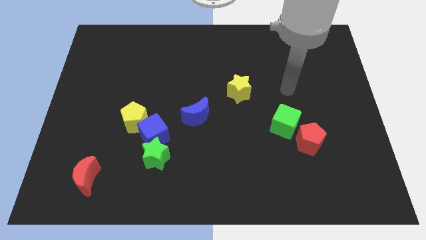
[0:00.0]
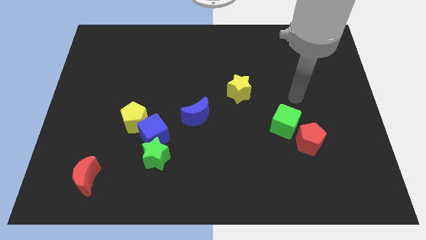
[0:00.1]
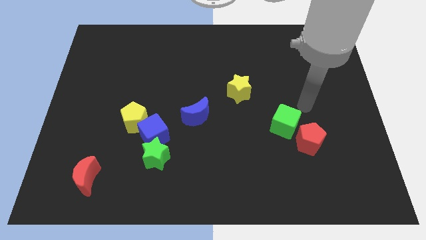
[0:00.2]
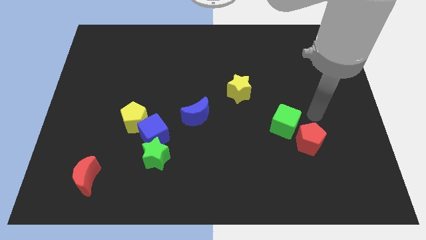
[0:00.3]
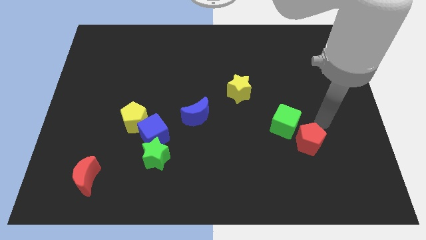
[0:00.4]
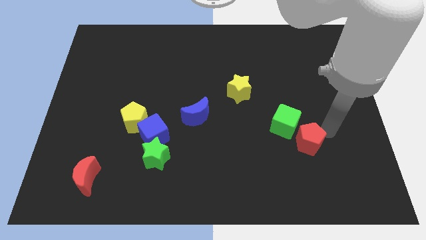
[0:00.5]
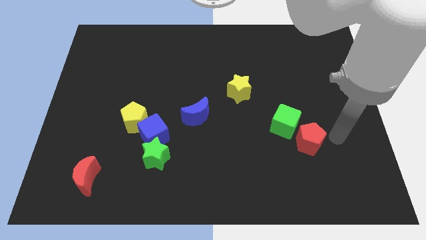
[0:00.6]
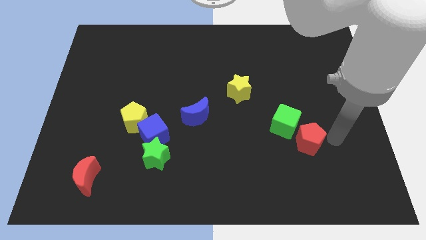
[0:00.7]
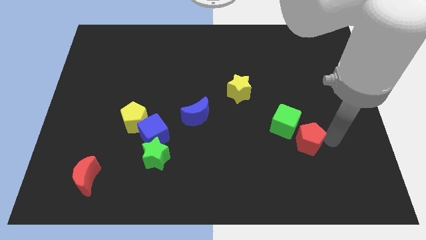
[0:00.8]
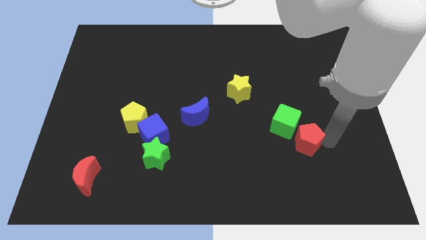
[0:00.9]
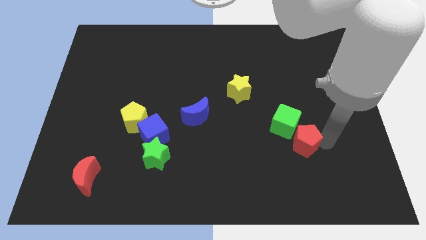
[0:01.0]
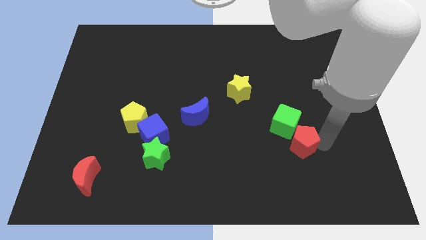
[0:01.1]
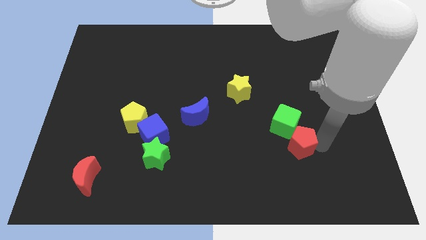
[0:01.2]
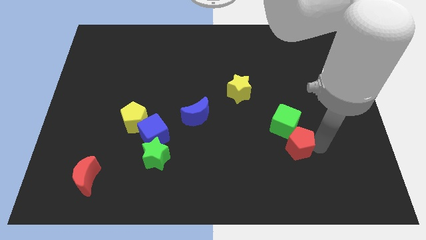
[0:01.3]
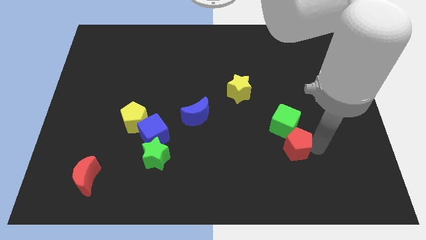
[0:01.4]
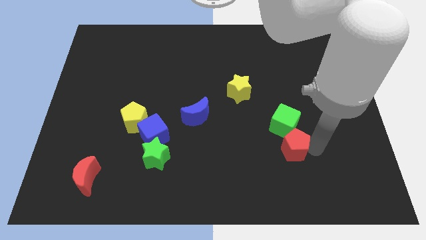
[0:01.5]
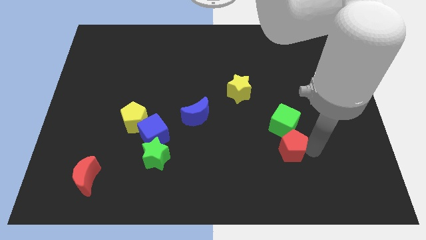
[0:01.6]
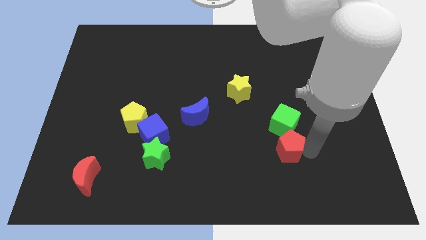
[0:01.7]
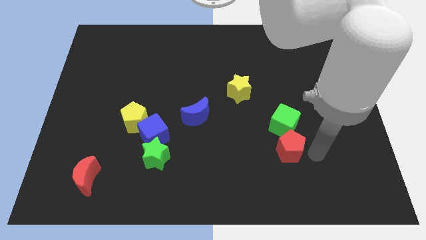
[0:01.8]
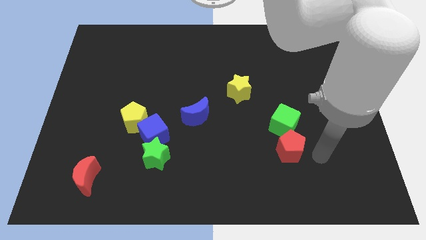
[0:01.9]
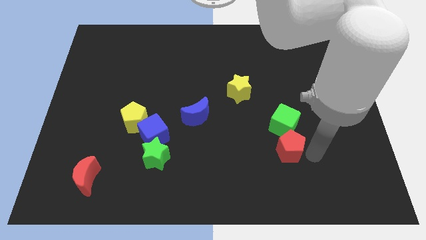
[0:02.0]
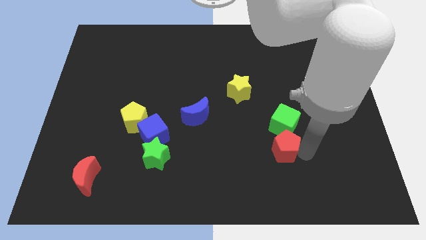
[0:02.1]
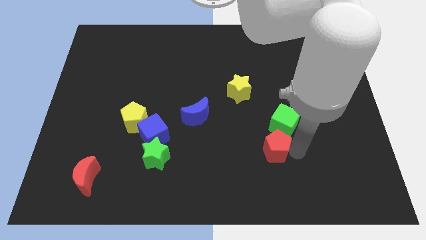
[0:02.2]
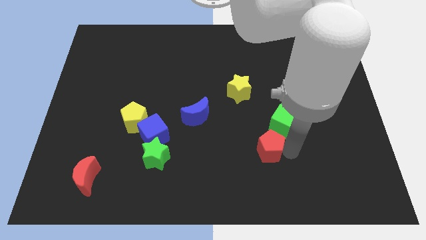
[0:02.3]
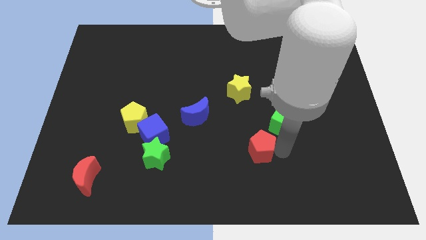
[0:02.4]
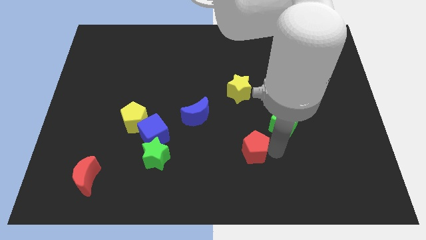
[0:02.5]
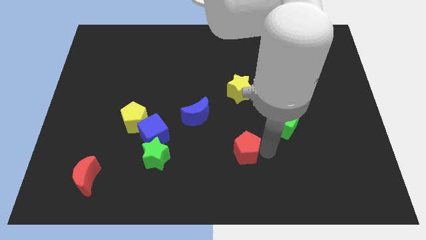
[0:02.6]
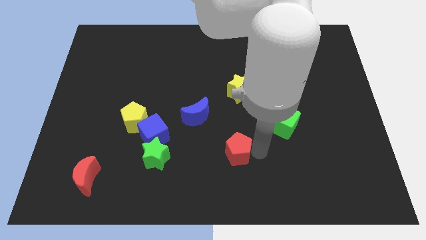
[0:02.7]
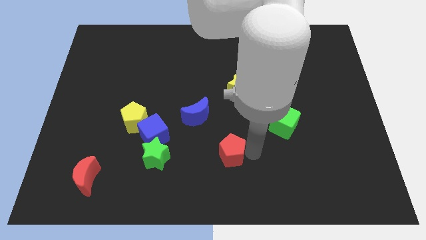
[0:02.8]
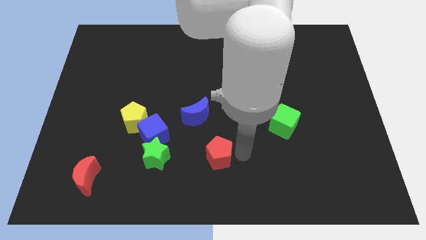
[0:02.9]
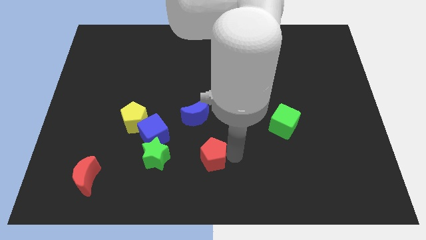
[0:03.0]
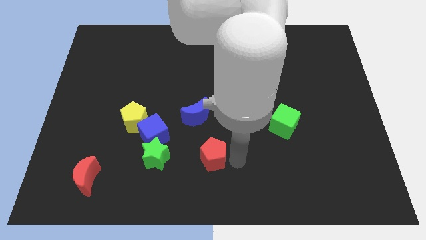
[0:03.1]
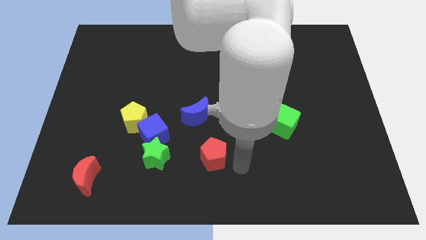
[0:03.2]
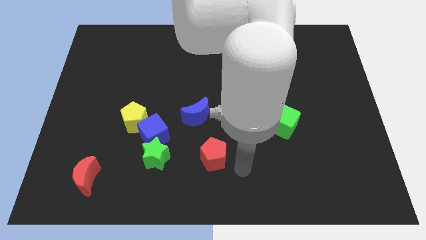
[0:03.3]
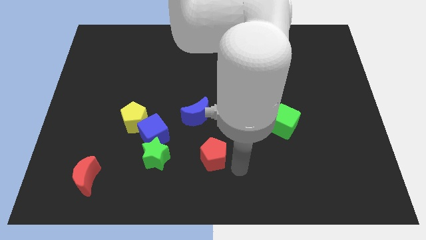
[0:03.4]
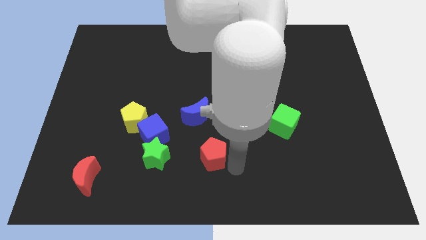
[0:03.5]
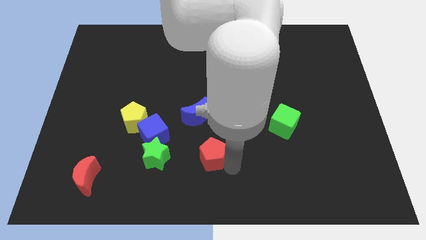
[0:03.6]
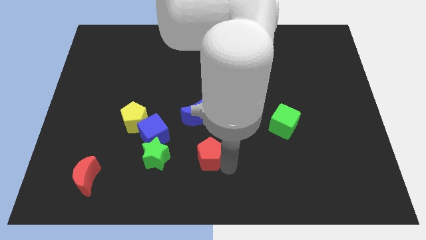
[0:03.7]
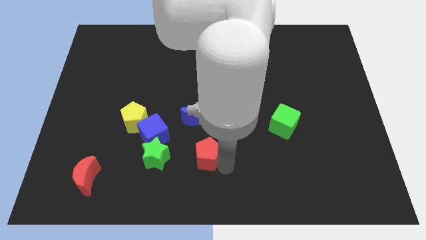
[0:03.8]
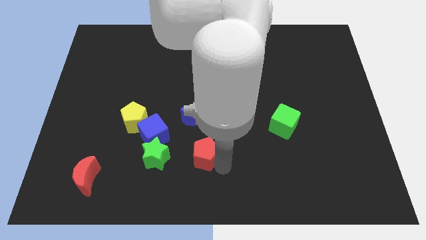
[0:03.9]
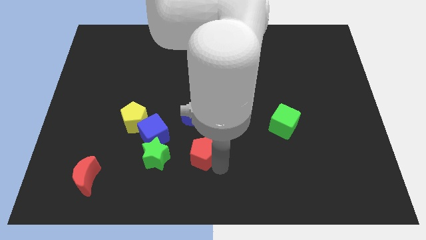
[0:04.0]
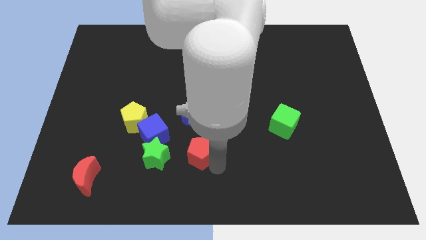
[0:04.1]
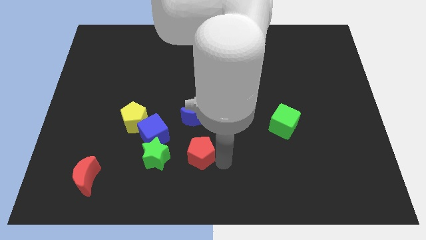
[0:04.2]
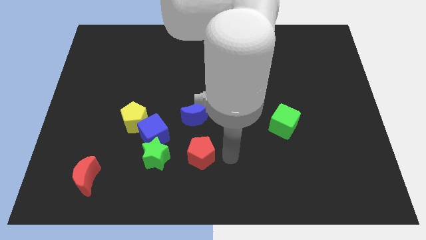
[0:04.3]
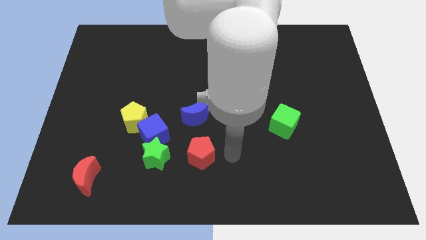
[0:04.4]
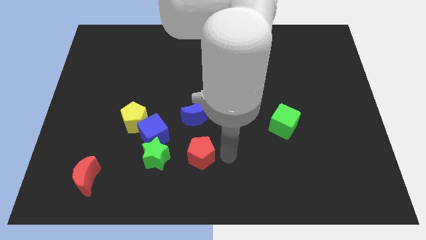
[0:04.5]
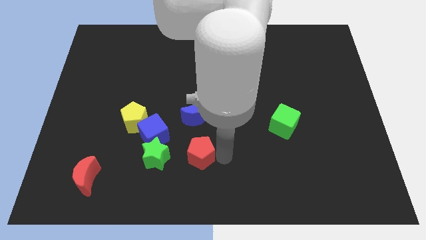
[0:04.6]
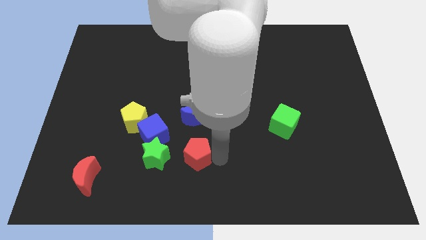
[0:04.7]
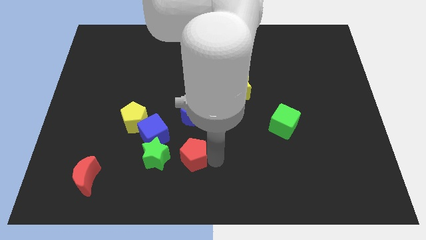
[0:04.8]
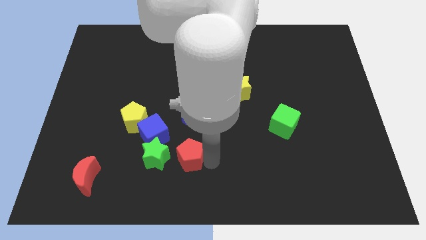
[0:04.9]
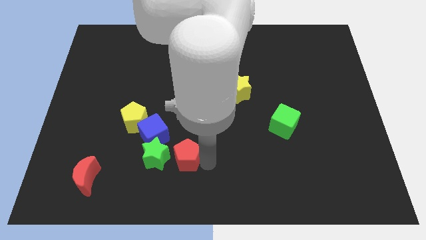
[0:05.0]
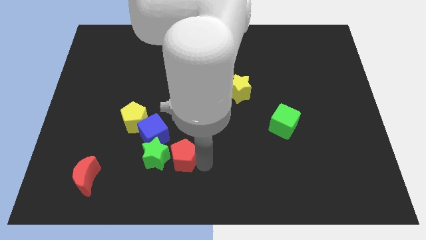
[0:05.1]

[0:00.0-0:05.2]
push the red pentagon next to the green star

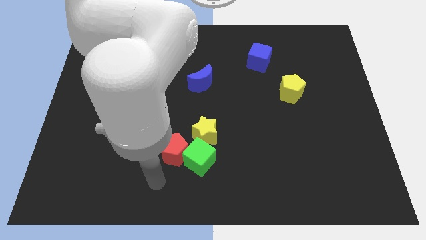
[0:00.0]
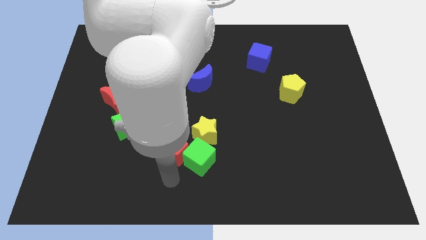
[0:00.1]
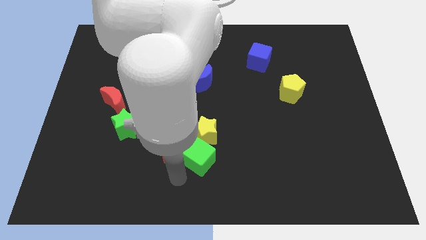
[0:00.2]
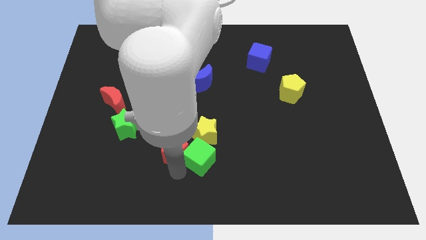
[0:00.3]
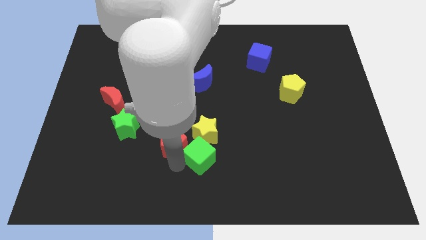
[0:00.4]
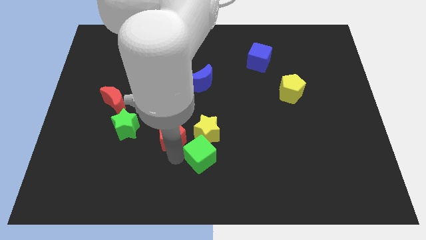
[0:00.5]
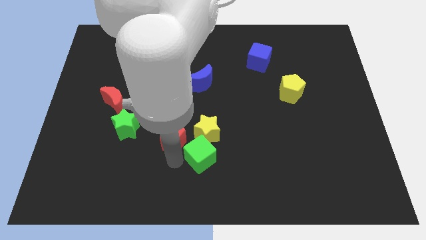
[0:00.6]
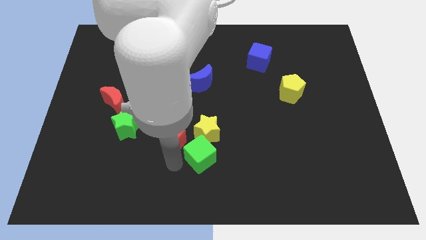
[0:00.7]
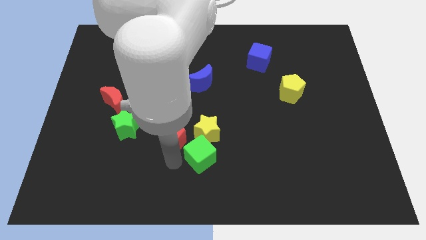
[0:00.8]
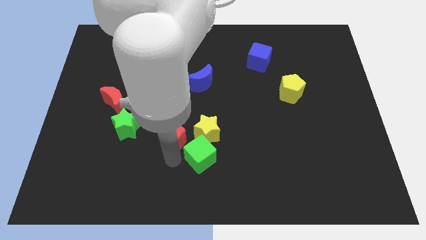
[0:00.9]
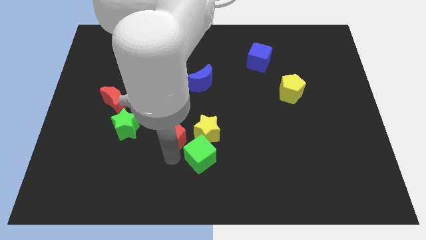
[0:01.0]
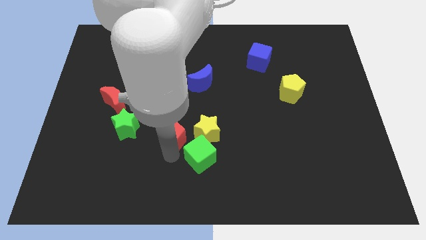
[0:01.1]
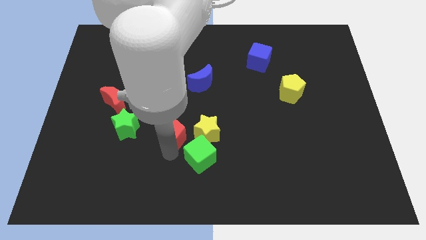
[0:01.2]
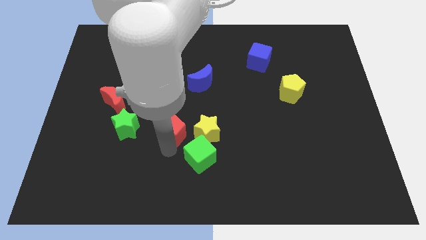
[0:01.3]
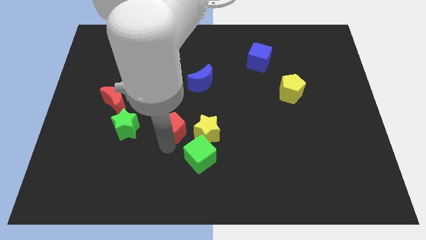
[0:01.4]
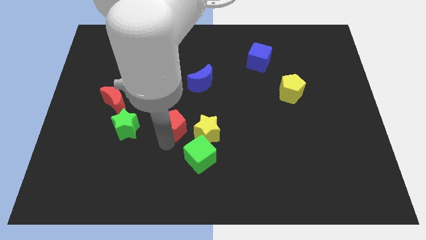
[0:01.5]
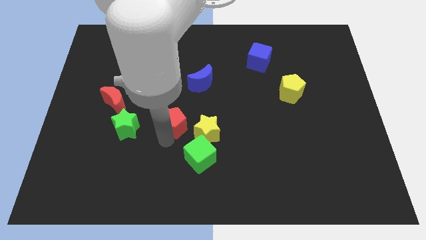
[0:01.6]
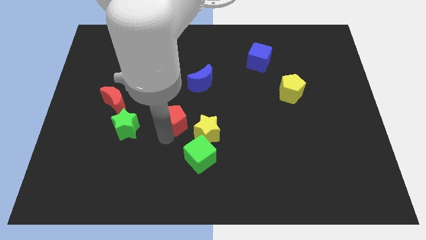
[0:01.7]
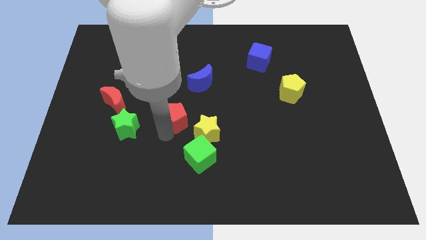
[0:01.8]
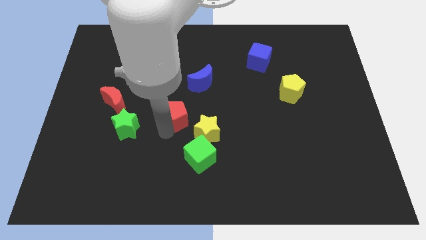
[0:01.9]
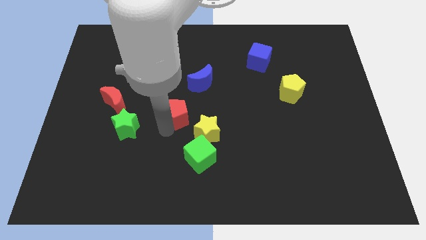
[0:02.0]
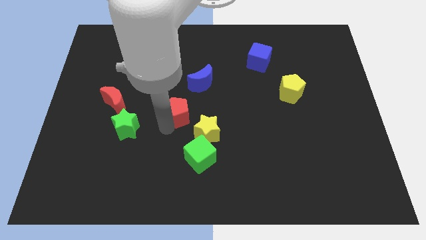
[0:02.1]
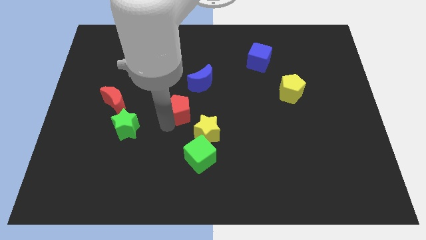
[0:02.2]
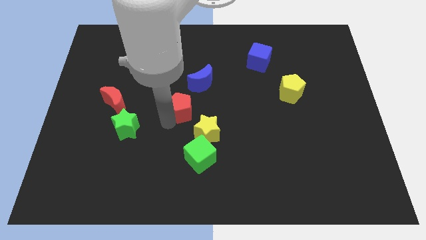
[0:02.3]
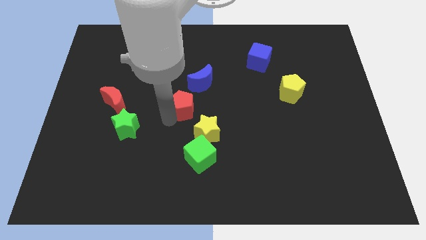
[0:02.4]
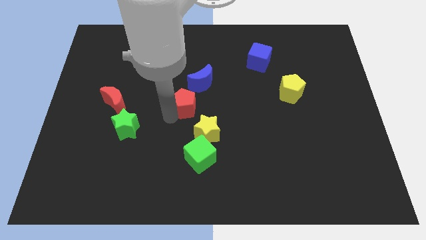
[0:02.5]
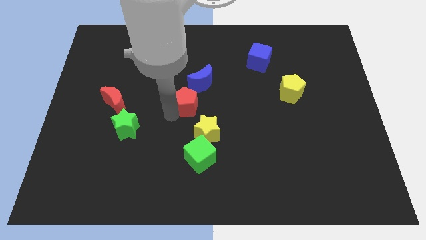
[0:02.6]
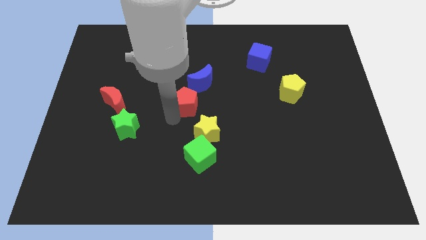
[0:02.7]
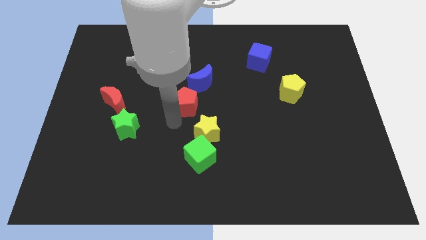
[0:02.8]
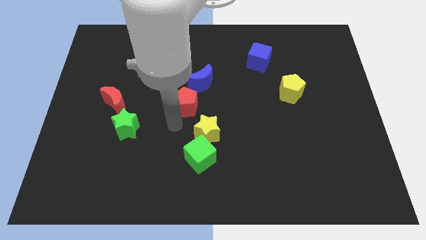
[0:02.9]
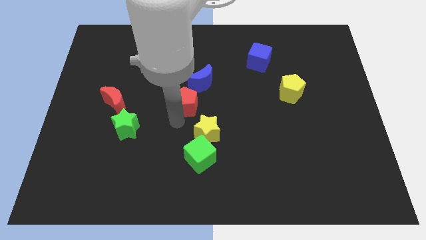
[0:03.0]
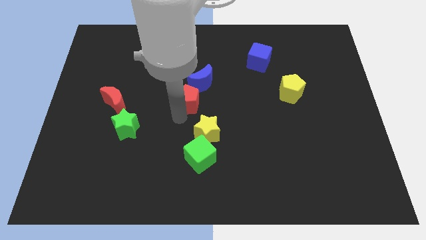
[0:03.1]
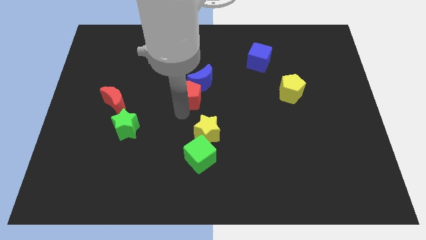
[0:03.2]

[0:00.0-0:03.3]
move the red pentagon next to the blue moon
